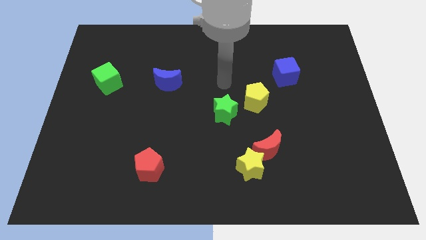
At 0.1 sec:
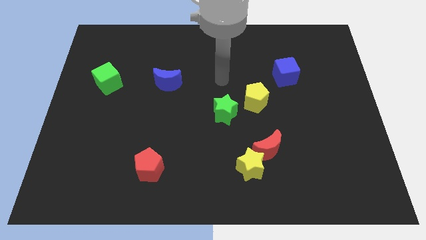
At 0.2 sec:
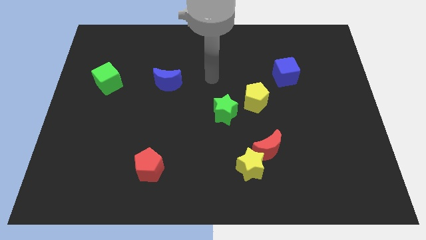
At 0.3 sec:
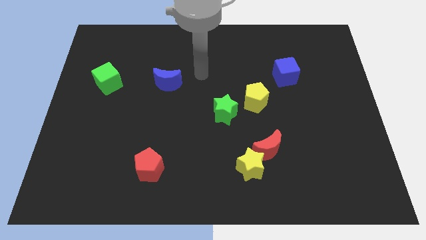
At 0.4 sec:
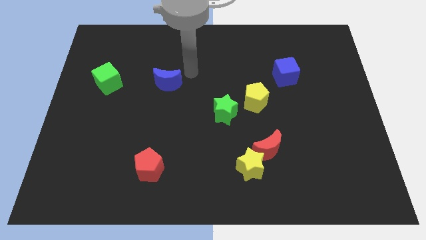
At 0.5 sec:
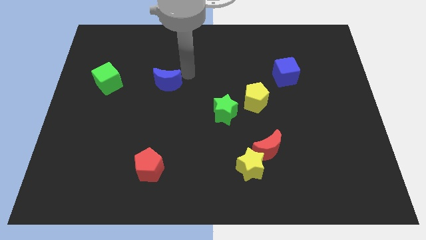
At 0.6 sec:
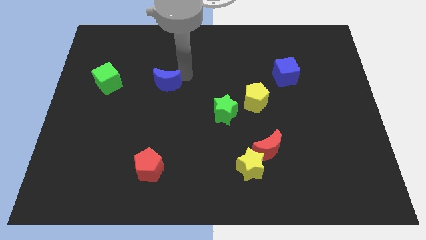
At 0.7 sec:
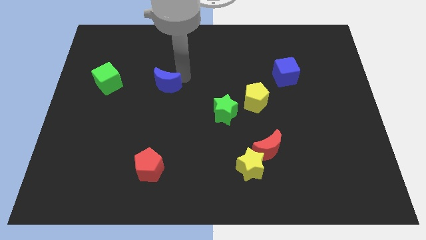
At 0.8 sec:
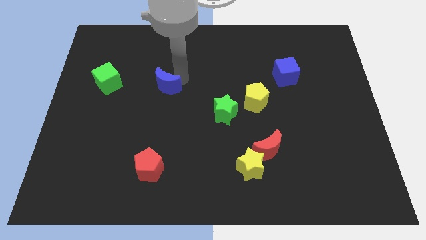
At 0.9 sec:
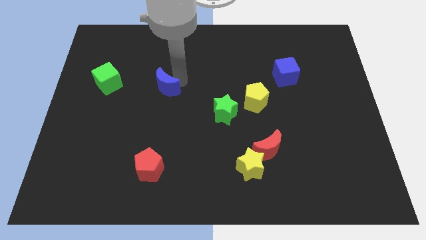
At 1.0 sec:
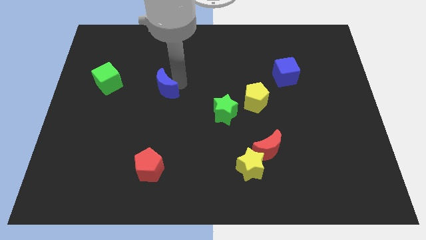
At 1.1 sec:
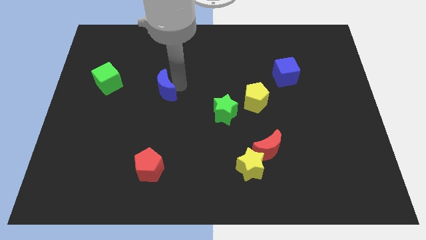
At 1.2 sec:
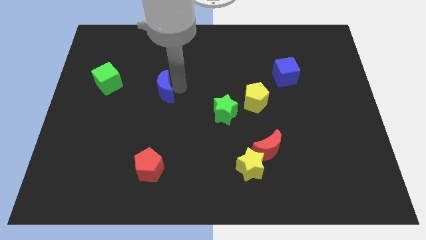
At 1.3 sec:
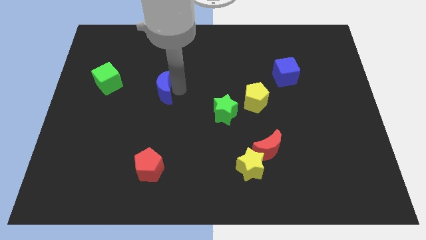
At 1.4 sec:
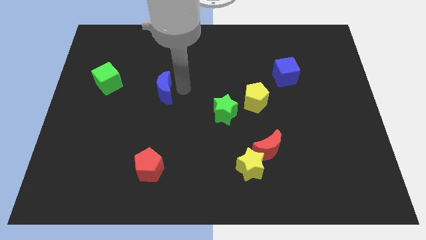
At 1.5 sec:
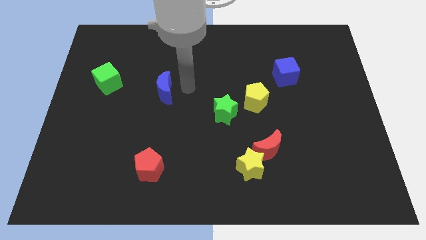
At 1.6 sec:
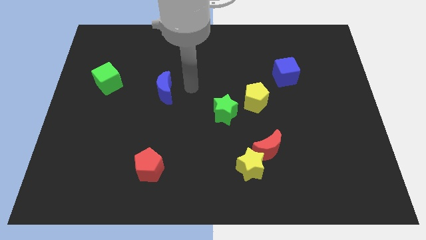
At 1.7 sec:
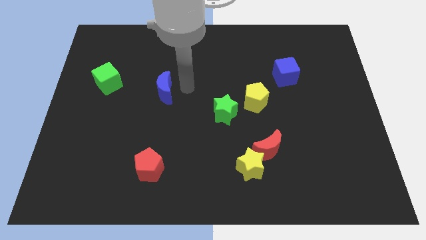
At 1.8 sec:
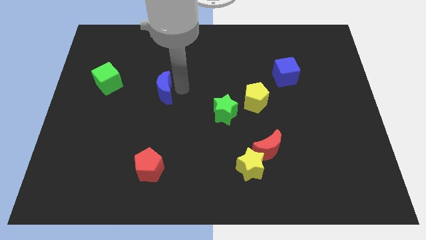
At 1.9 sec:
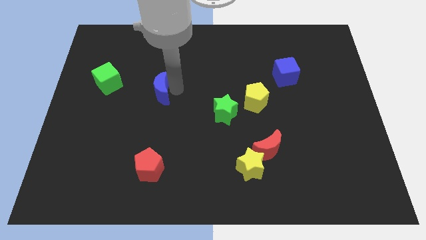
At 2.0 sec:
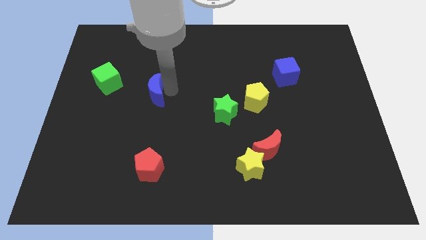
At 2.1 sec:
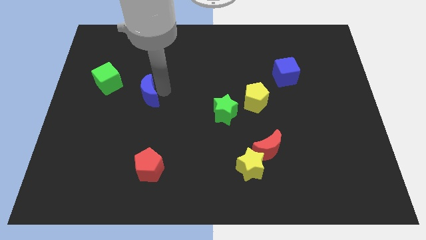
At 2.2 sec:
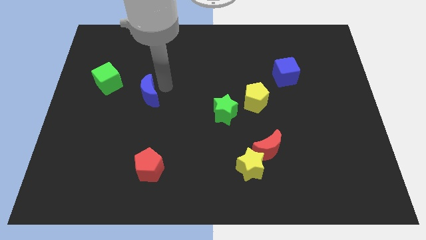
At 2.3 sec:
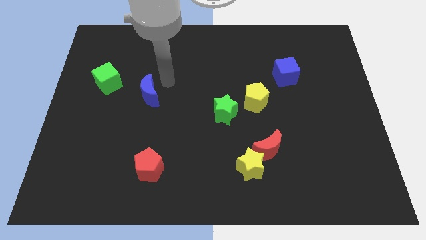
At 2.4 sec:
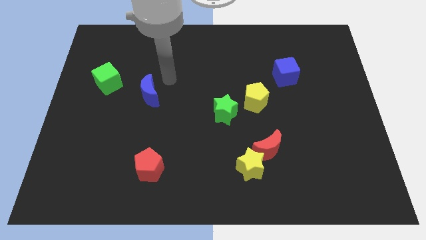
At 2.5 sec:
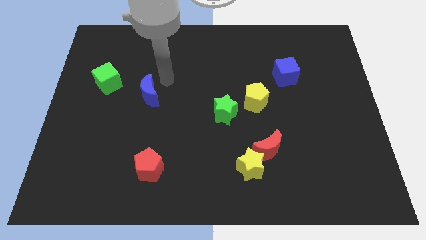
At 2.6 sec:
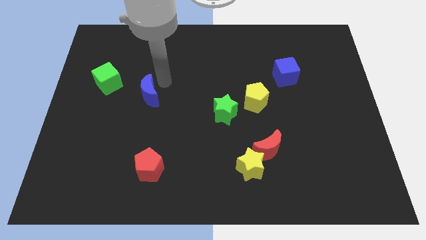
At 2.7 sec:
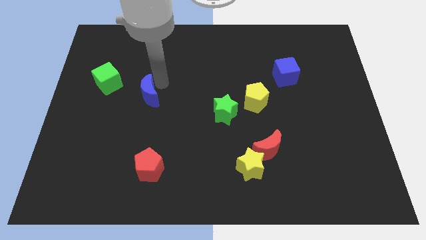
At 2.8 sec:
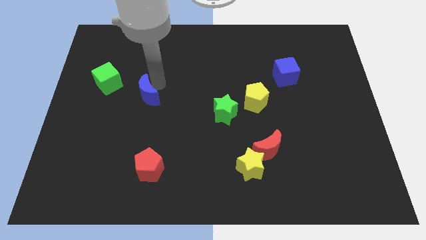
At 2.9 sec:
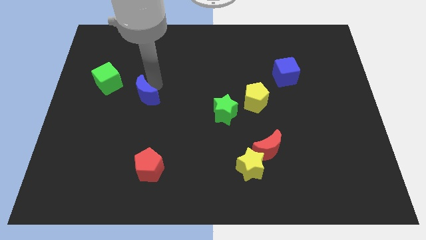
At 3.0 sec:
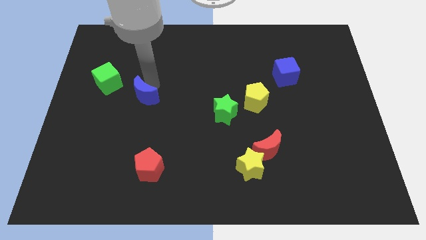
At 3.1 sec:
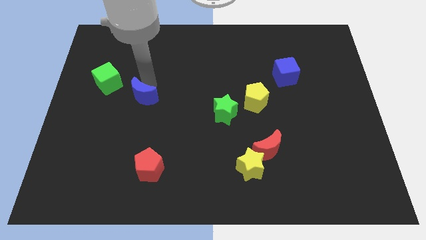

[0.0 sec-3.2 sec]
slightly push the blue moon downwards and then to the left

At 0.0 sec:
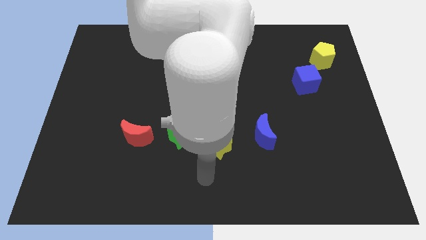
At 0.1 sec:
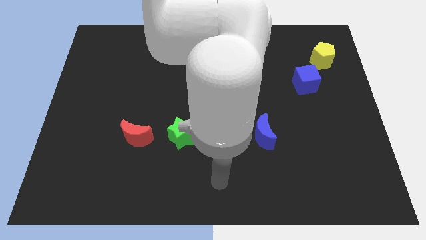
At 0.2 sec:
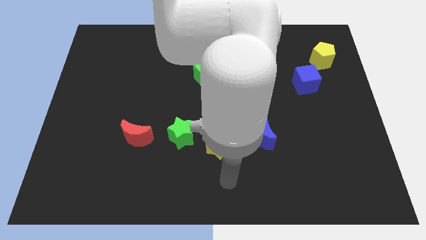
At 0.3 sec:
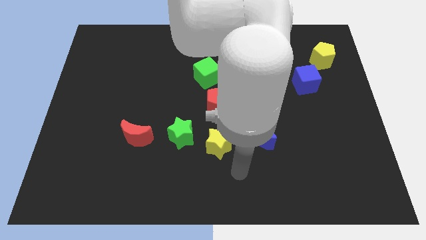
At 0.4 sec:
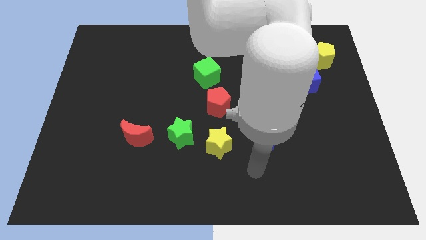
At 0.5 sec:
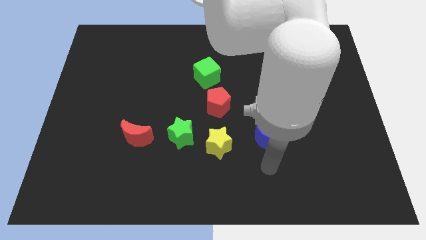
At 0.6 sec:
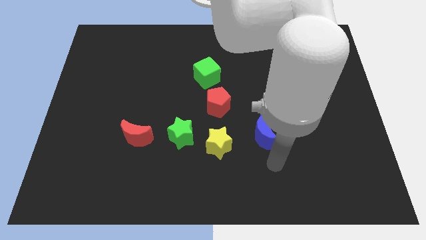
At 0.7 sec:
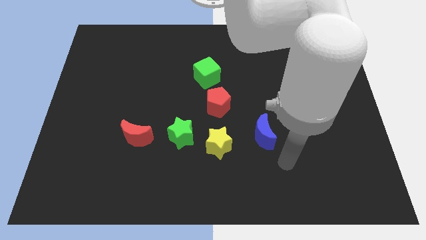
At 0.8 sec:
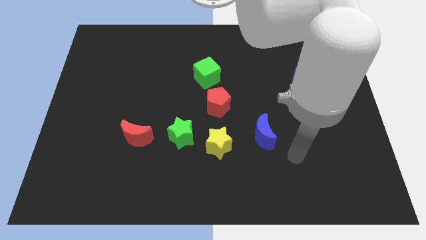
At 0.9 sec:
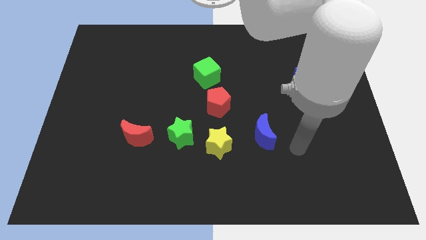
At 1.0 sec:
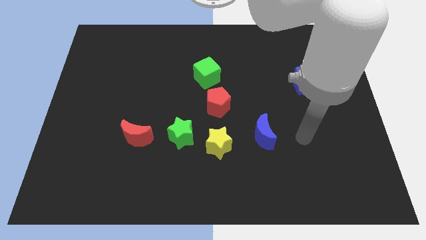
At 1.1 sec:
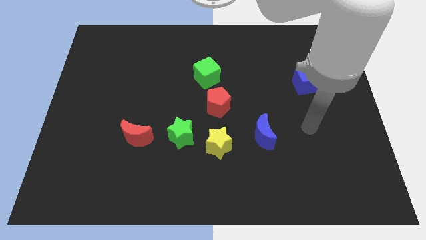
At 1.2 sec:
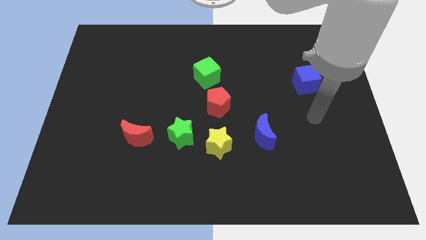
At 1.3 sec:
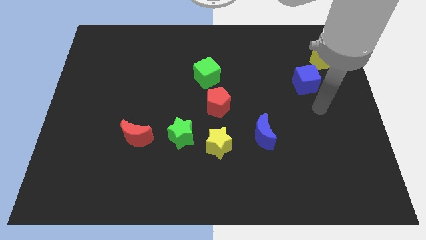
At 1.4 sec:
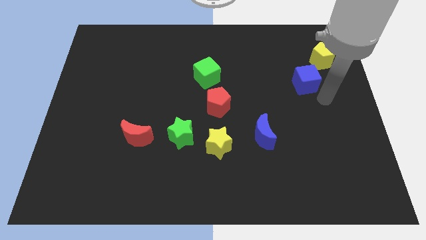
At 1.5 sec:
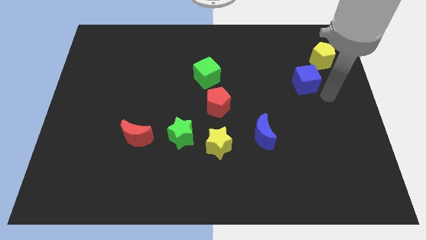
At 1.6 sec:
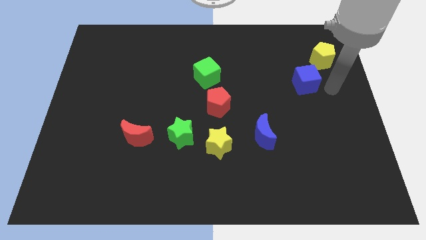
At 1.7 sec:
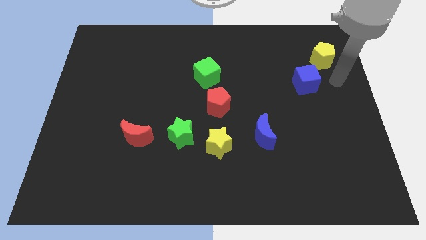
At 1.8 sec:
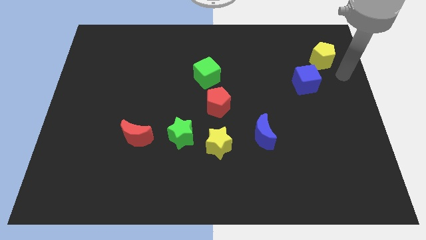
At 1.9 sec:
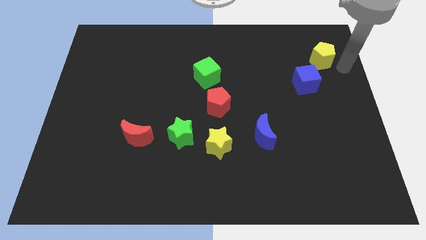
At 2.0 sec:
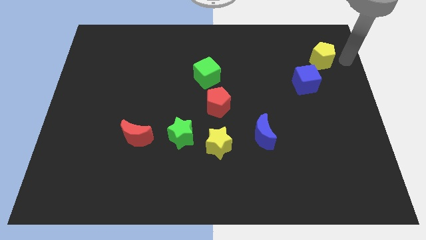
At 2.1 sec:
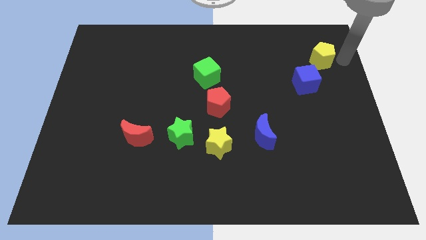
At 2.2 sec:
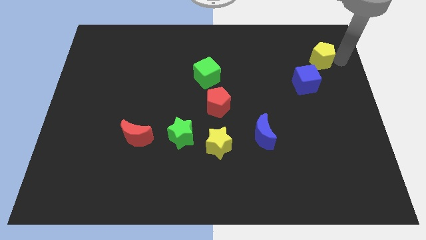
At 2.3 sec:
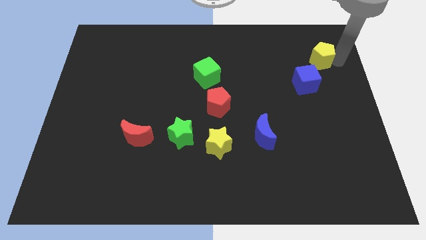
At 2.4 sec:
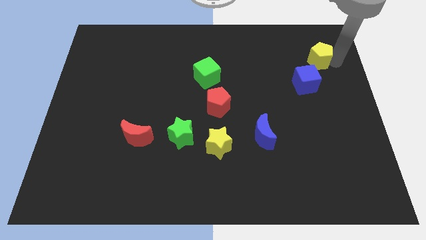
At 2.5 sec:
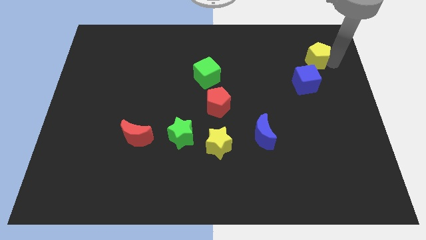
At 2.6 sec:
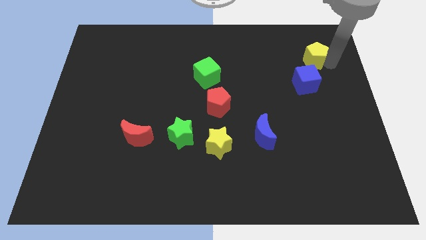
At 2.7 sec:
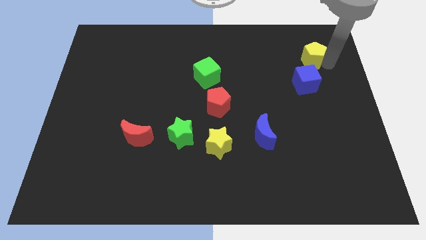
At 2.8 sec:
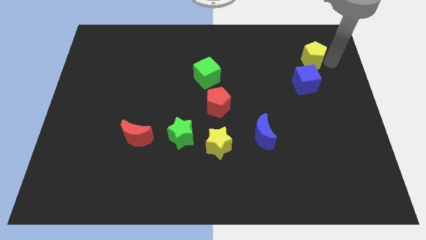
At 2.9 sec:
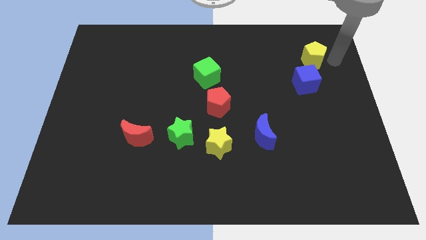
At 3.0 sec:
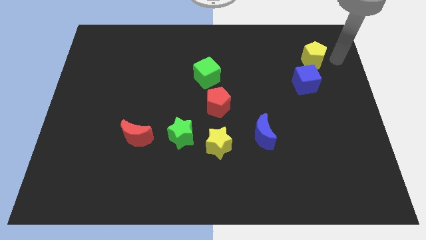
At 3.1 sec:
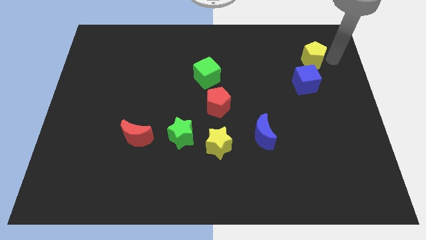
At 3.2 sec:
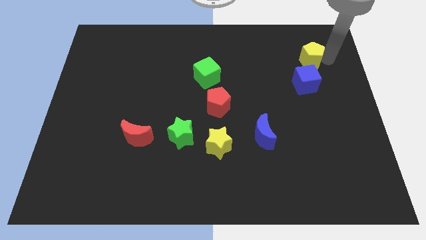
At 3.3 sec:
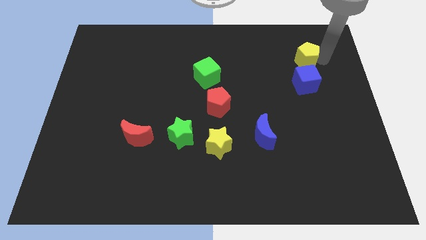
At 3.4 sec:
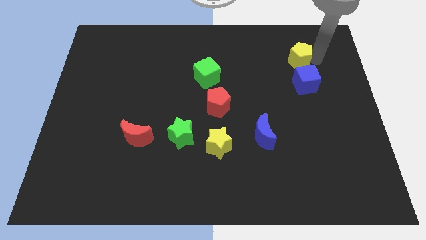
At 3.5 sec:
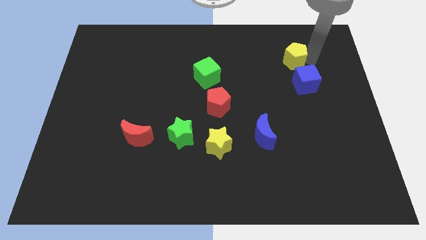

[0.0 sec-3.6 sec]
slide the yellow pentagon a bit to the left

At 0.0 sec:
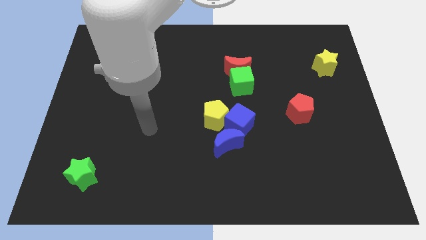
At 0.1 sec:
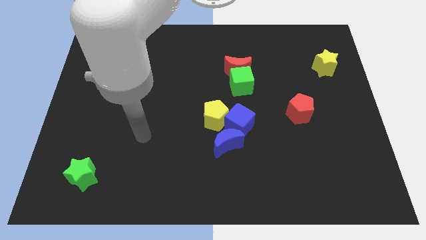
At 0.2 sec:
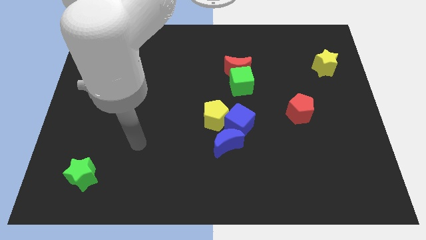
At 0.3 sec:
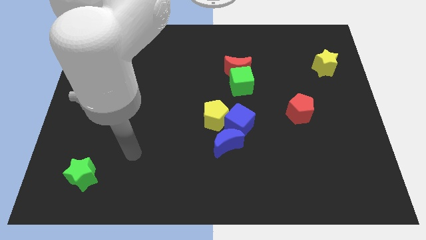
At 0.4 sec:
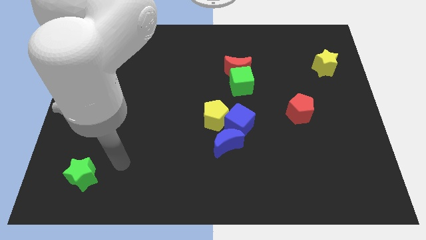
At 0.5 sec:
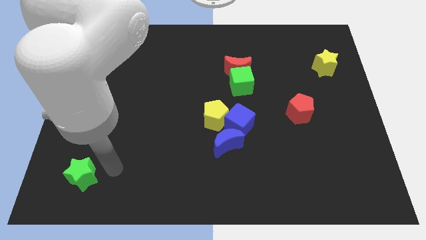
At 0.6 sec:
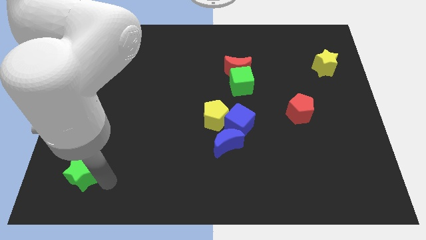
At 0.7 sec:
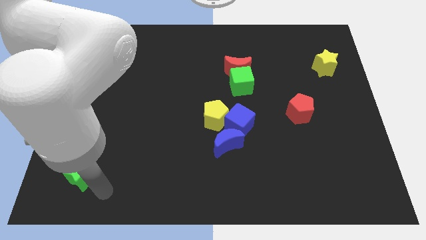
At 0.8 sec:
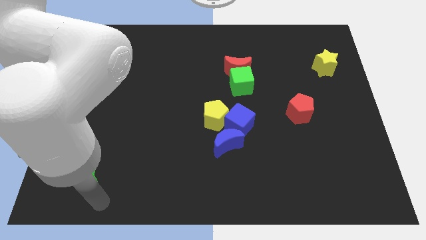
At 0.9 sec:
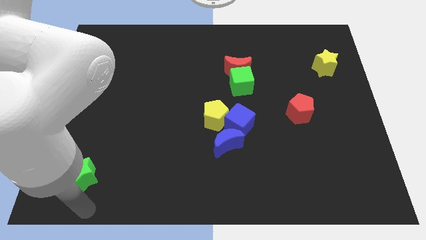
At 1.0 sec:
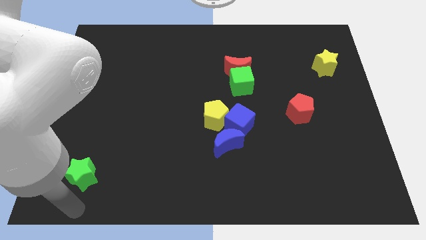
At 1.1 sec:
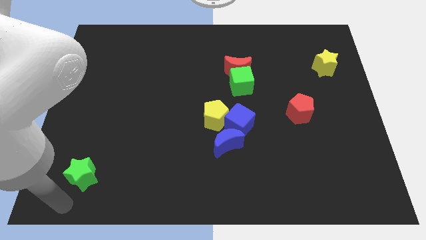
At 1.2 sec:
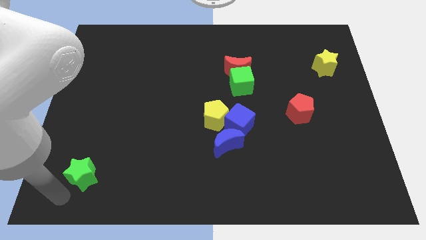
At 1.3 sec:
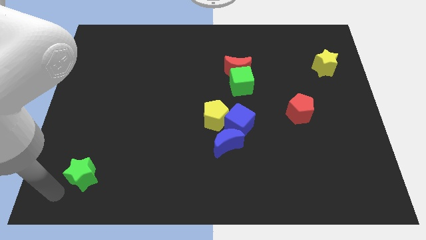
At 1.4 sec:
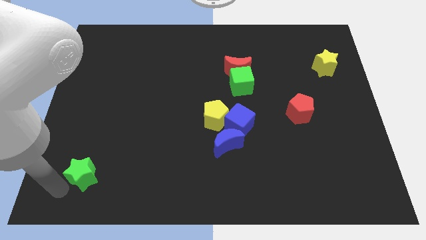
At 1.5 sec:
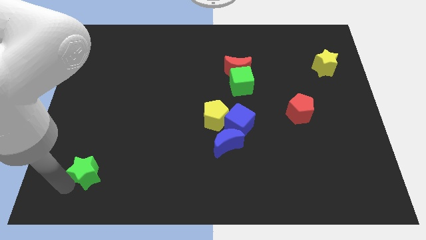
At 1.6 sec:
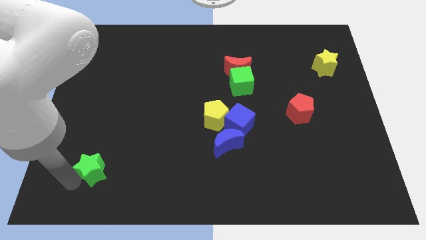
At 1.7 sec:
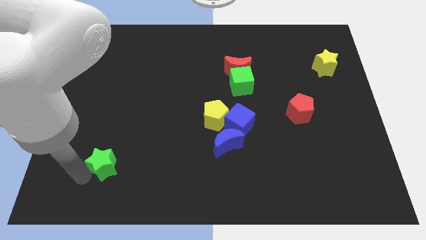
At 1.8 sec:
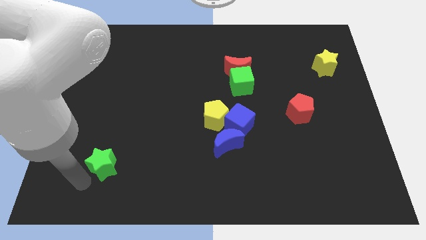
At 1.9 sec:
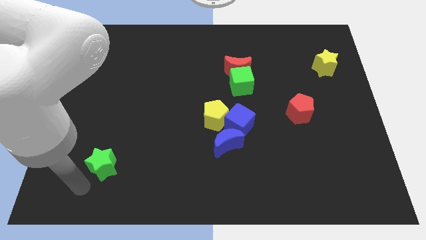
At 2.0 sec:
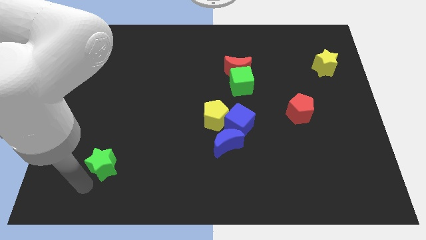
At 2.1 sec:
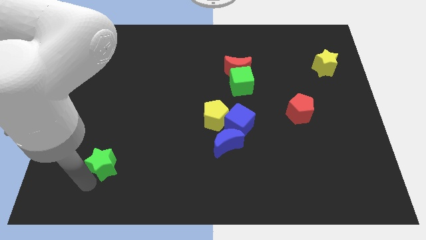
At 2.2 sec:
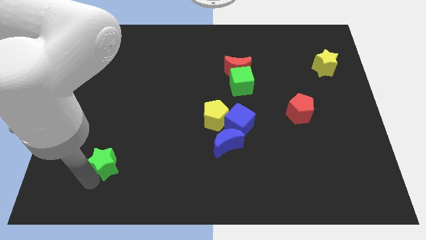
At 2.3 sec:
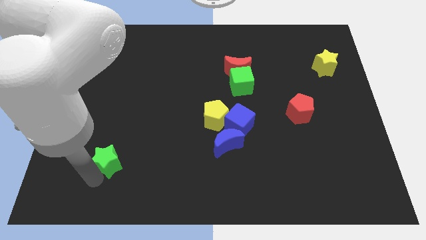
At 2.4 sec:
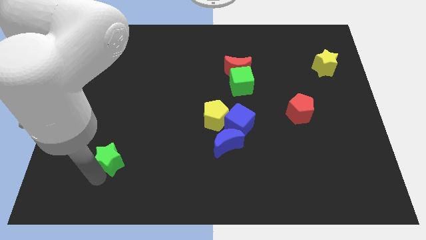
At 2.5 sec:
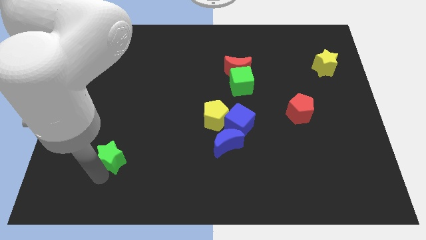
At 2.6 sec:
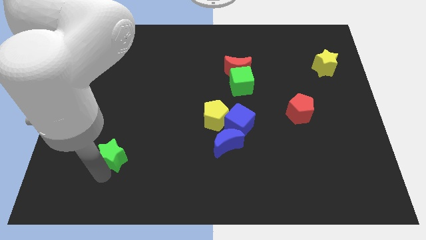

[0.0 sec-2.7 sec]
move the green star diagonally up and right a little bit
